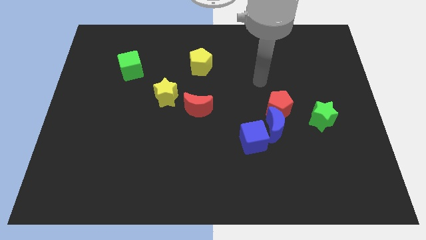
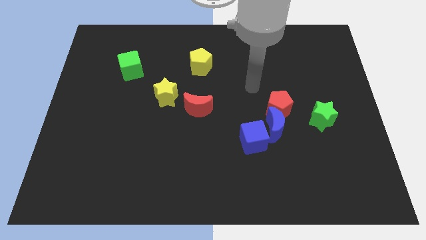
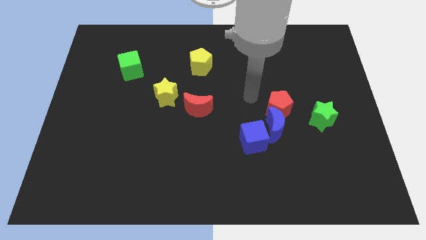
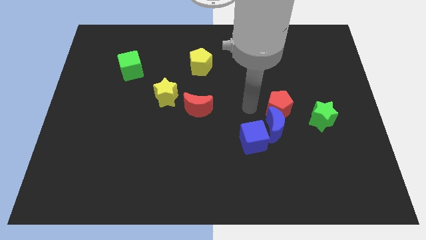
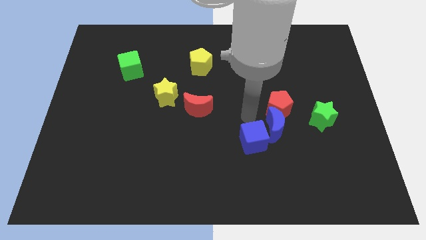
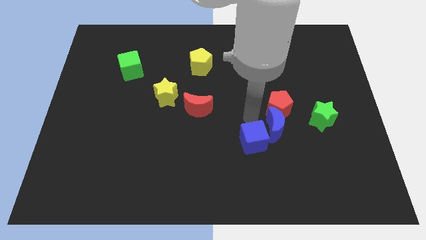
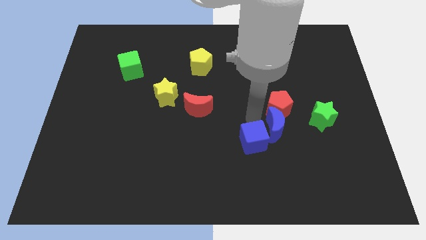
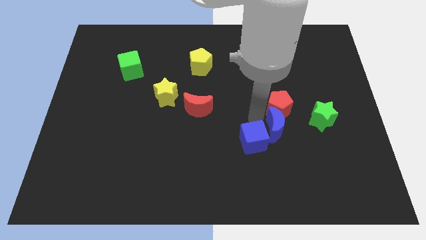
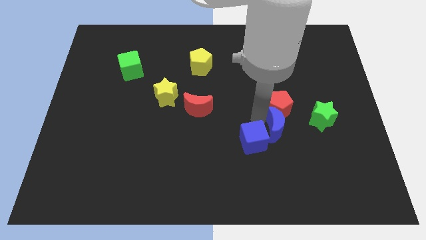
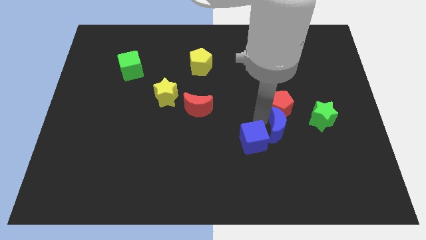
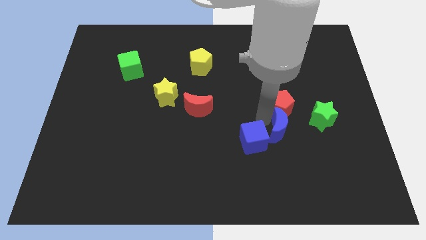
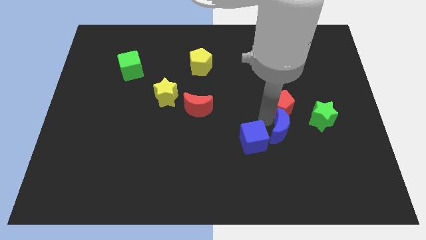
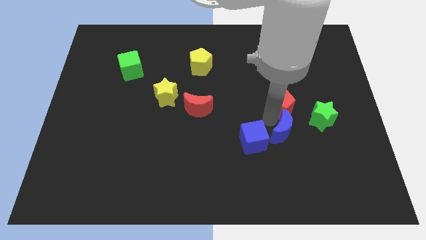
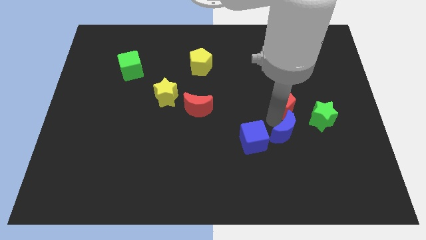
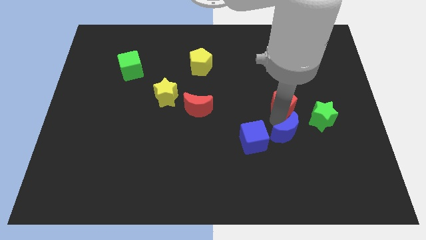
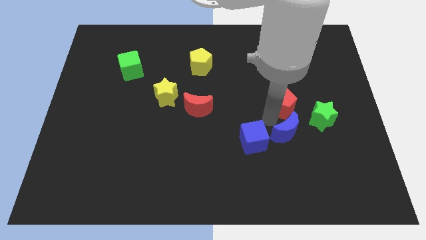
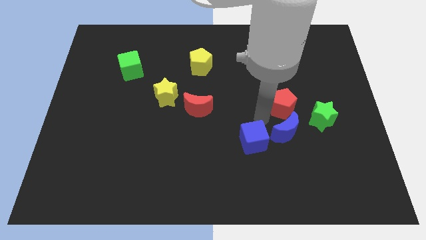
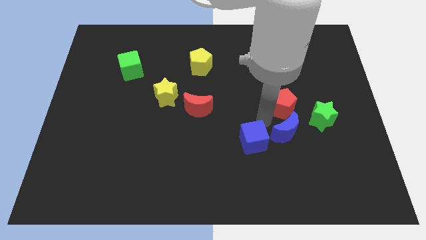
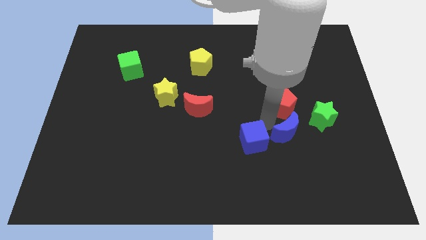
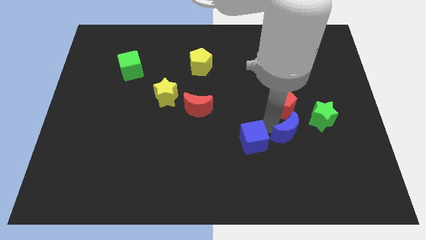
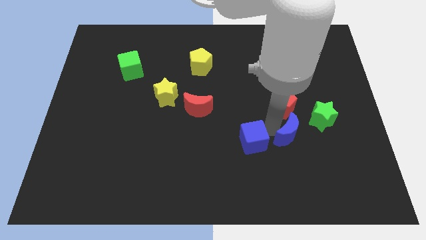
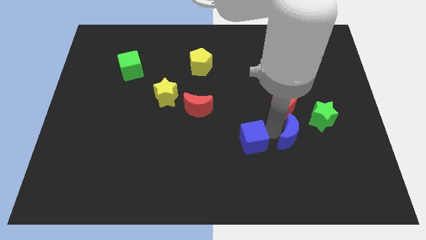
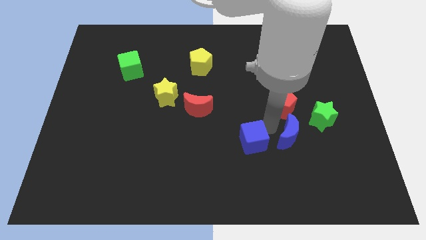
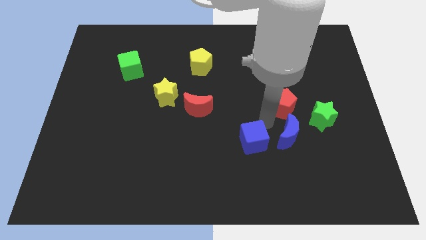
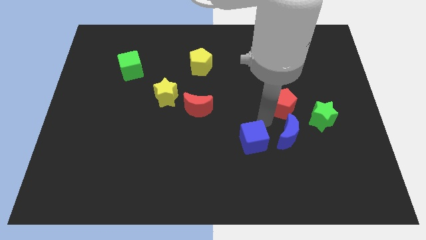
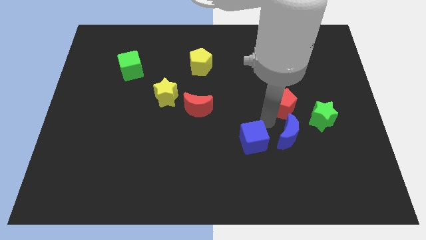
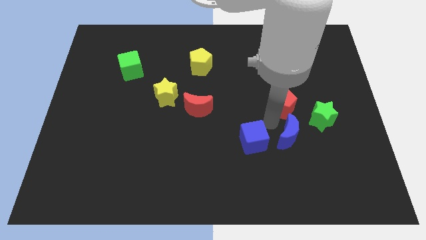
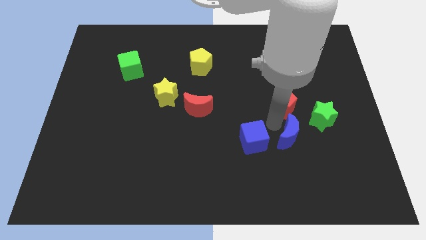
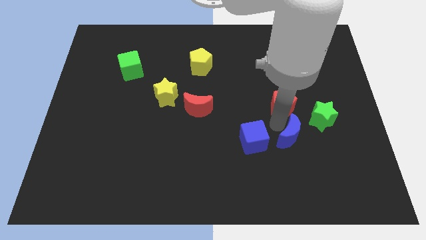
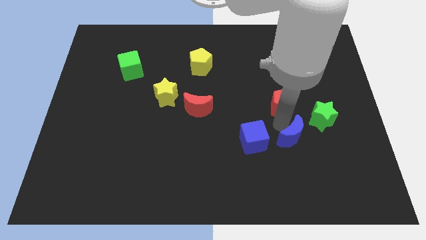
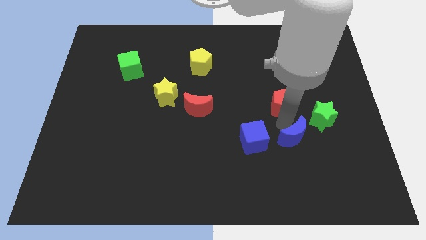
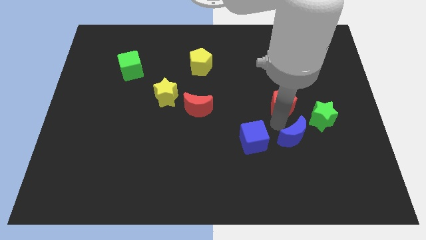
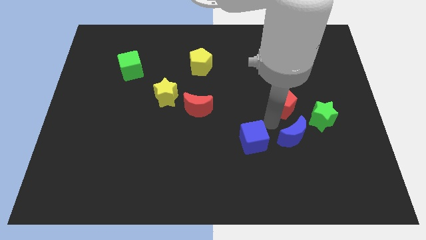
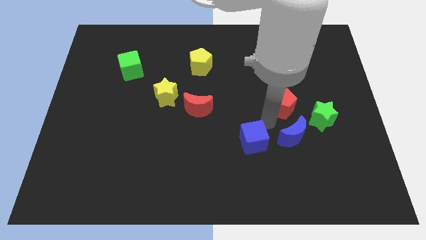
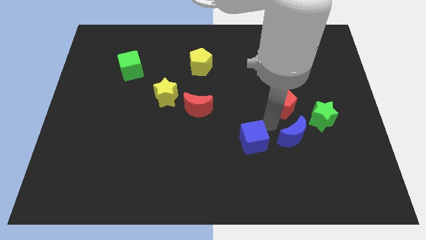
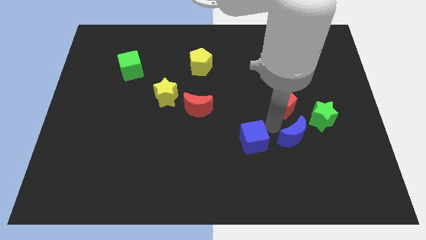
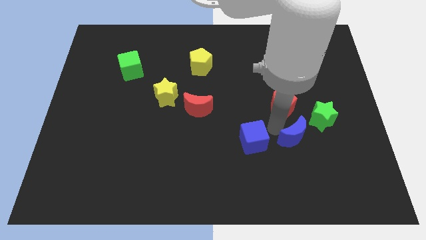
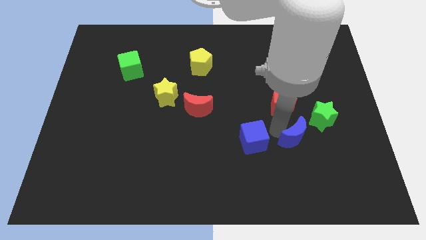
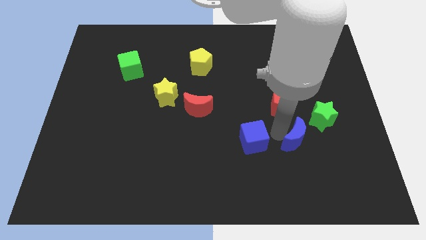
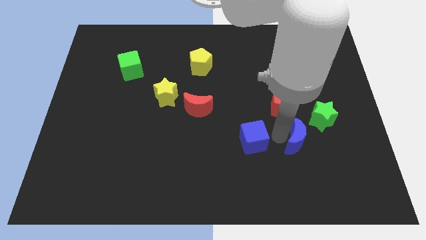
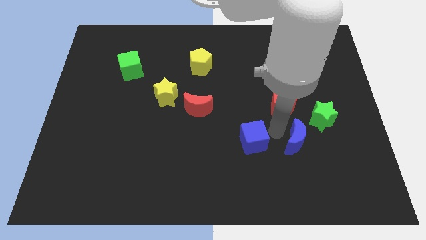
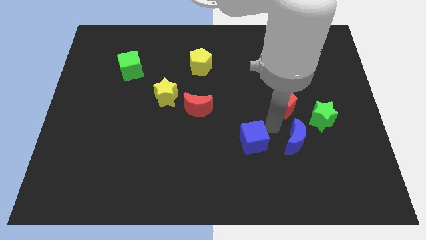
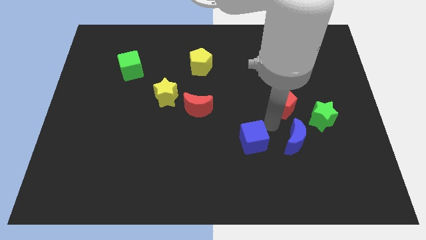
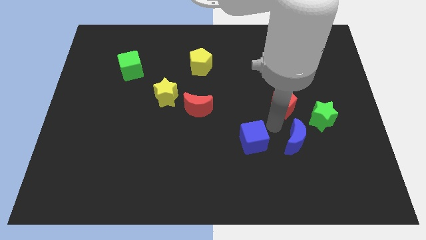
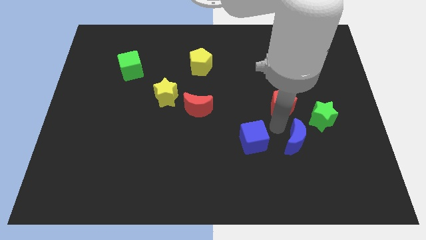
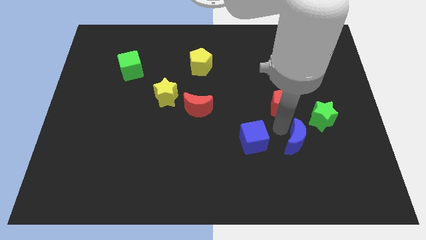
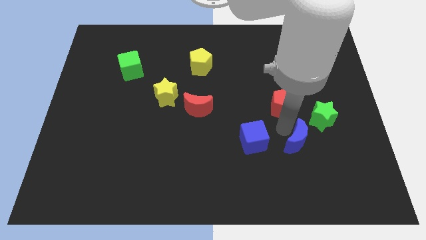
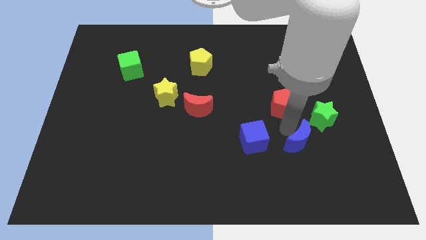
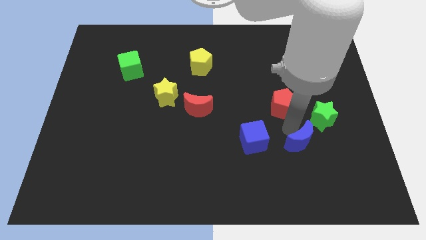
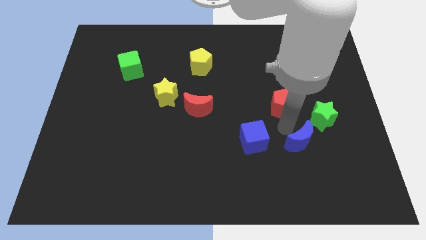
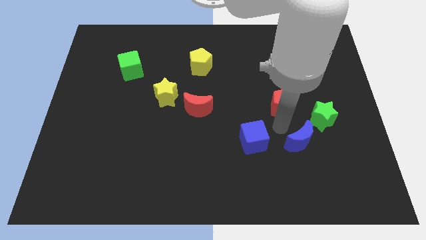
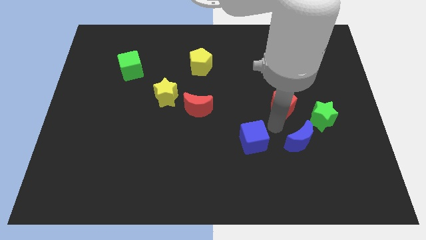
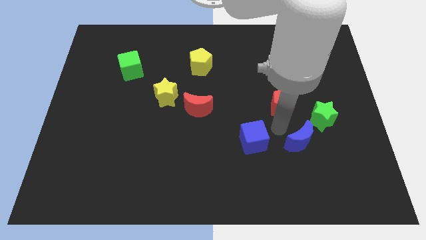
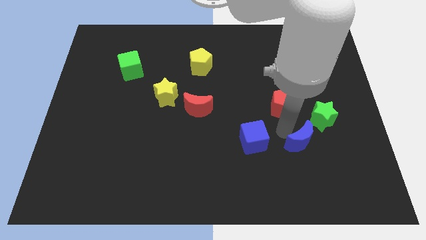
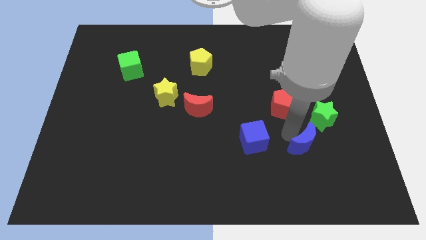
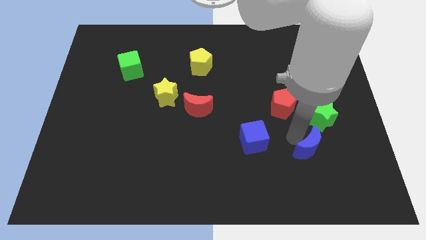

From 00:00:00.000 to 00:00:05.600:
pull the blue moon apart from the red pentagon and blue cube

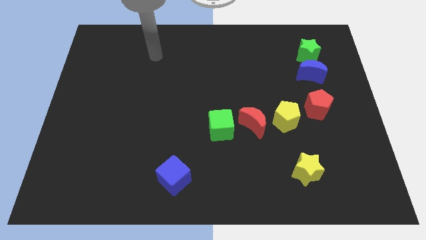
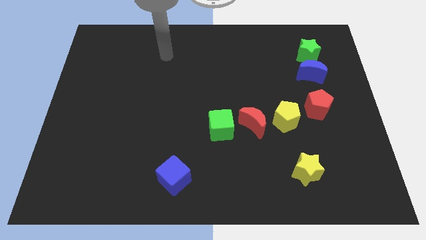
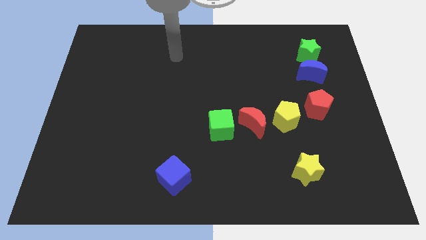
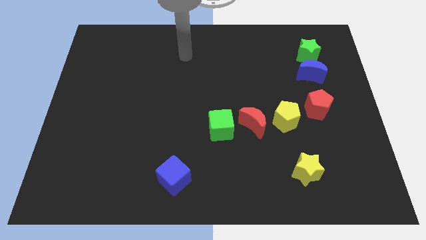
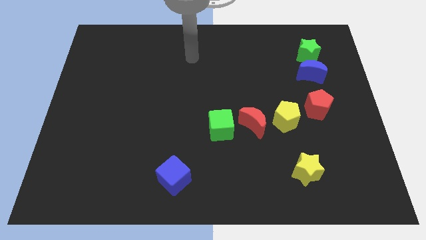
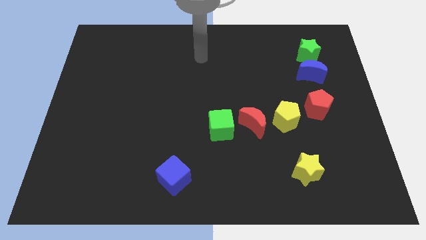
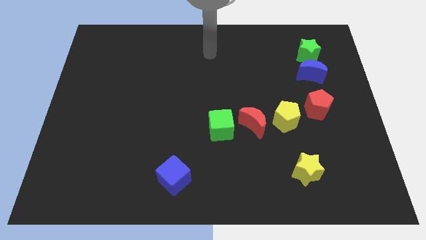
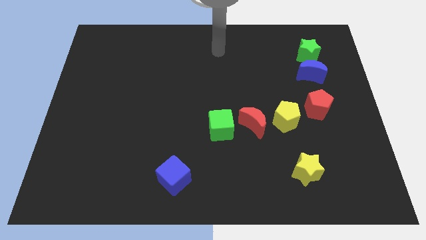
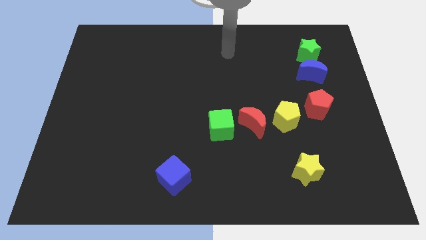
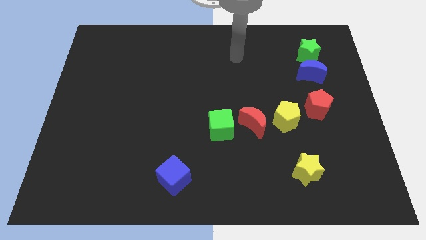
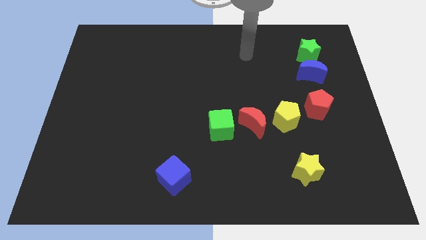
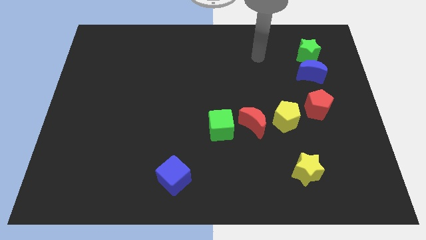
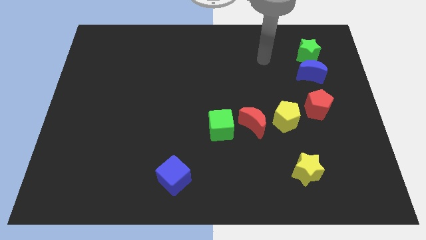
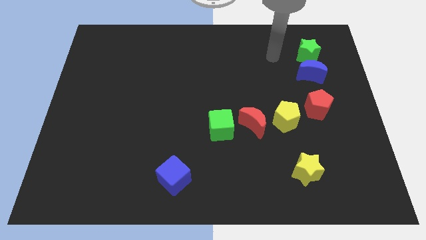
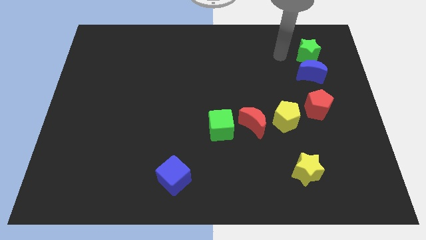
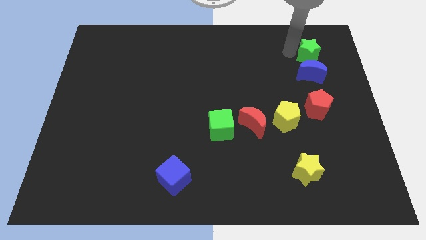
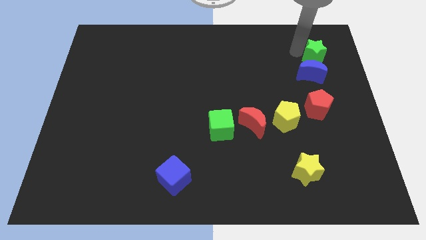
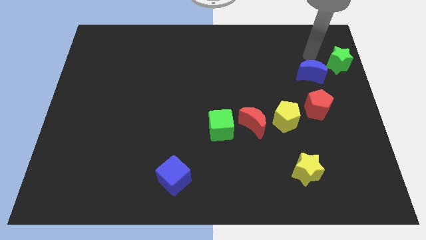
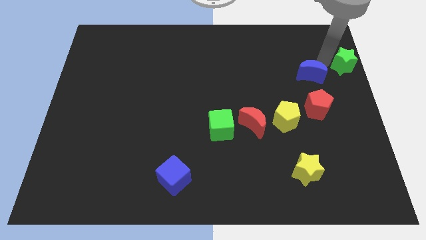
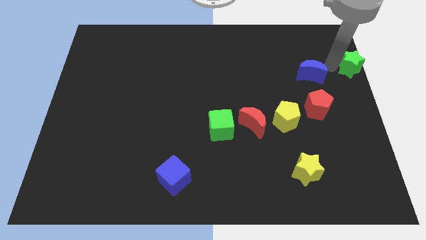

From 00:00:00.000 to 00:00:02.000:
move the blue moon away from the green star

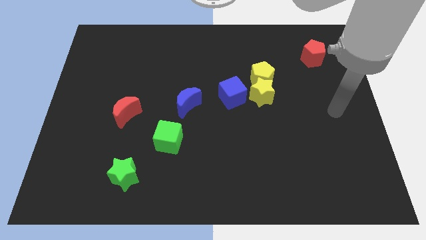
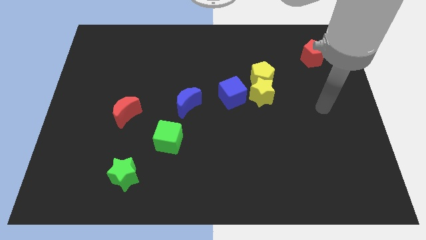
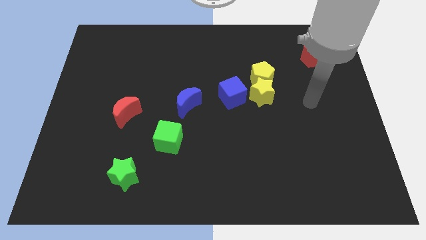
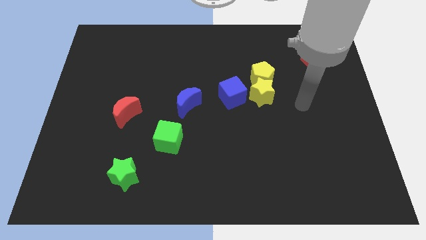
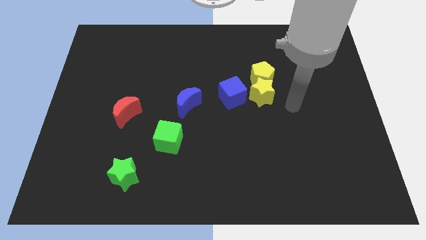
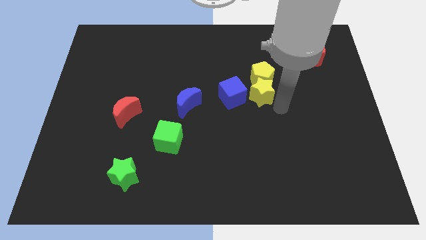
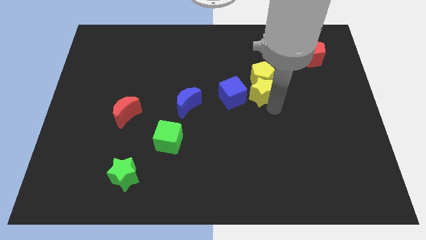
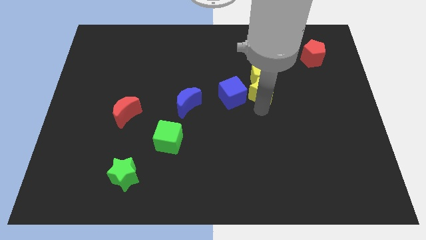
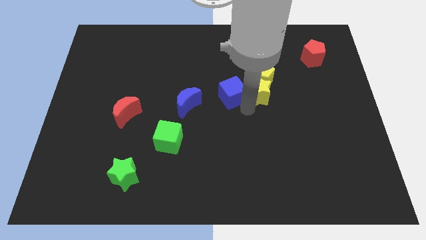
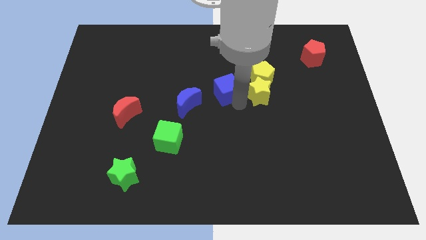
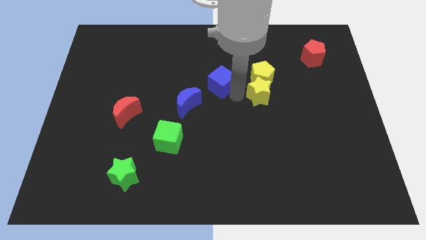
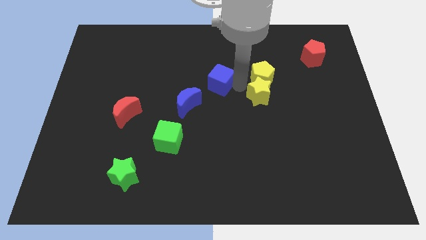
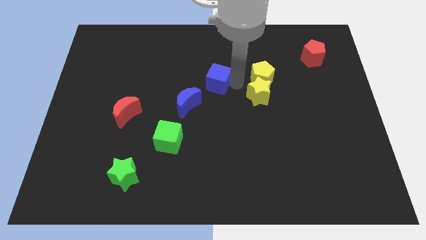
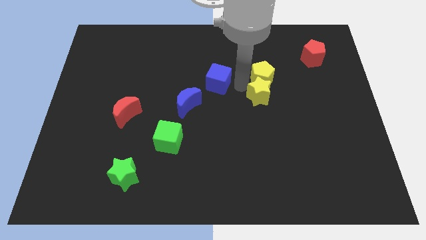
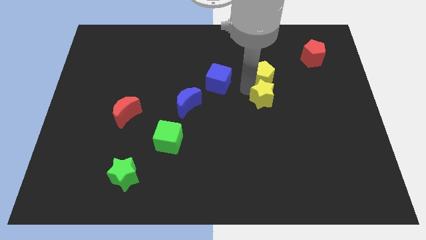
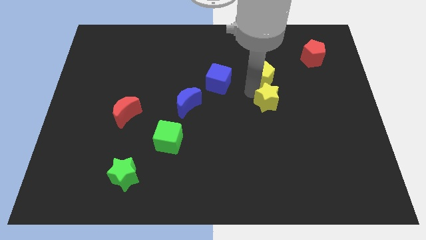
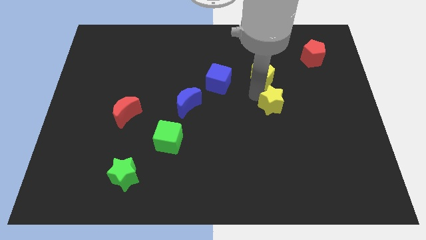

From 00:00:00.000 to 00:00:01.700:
move the yellow star away from the yellow pentagon and blue cube
